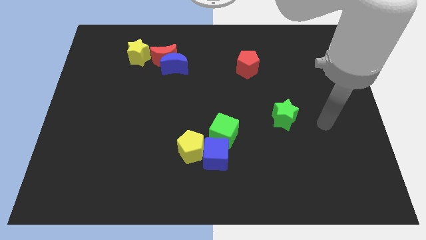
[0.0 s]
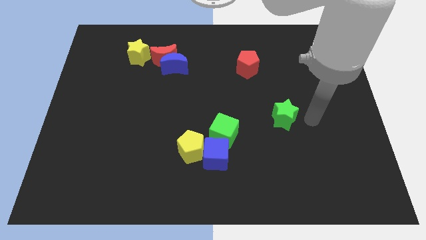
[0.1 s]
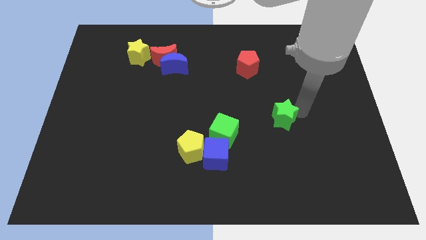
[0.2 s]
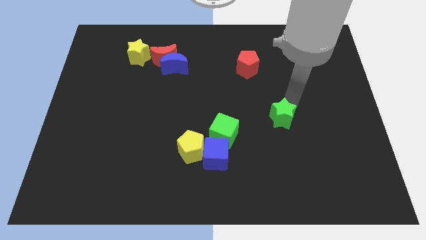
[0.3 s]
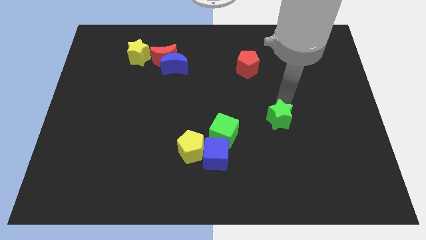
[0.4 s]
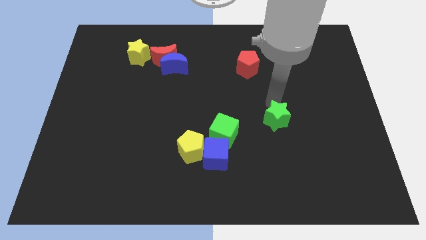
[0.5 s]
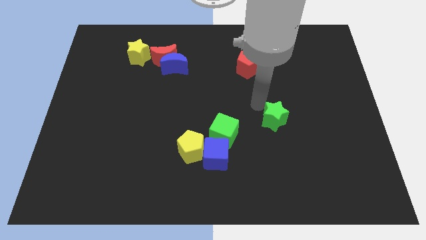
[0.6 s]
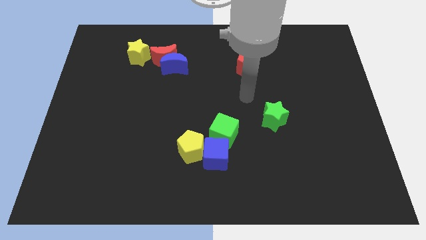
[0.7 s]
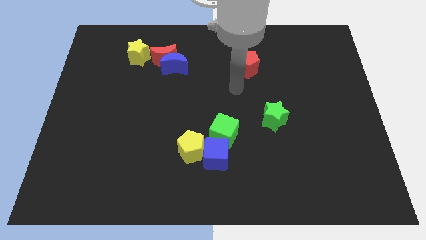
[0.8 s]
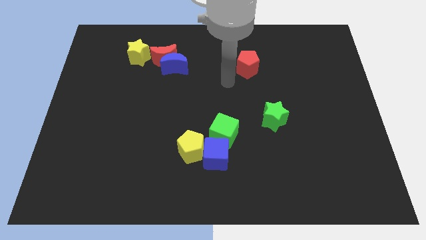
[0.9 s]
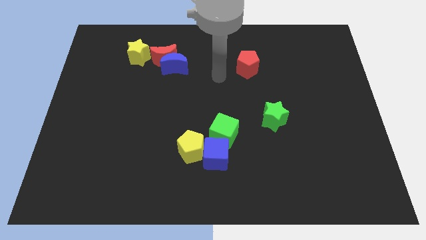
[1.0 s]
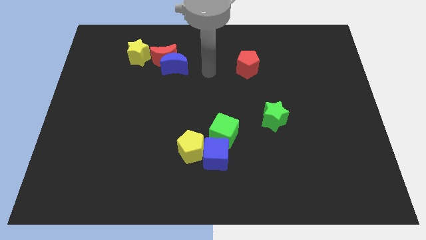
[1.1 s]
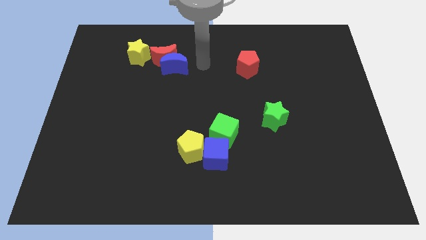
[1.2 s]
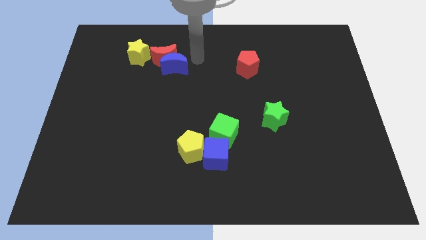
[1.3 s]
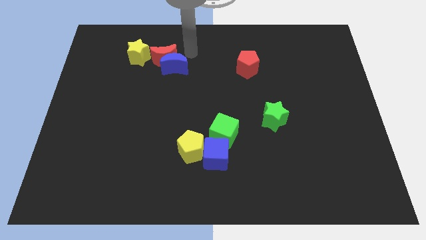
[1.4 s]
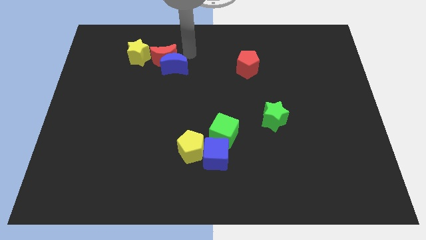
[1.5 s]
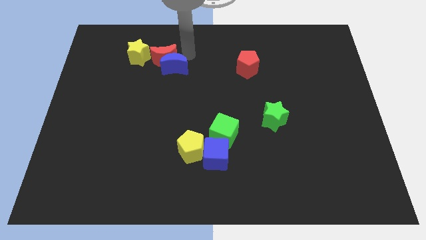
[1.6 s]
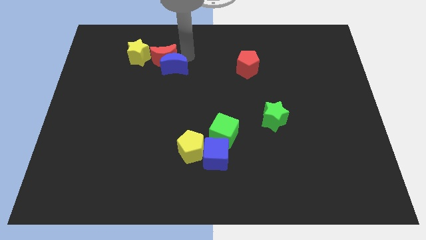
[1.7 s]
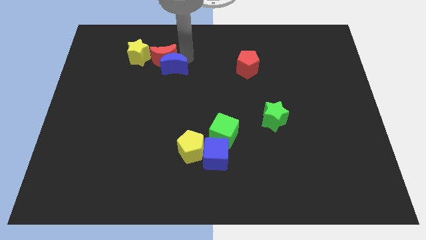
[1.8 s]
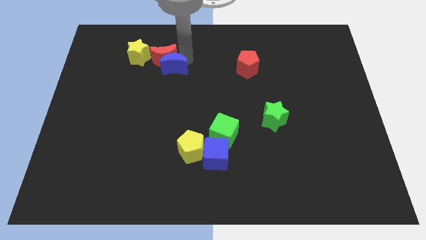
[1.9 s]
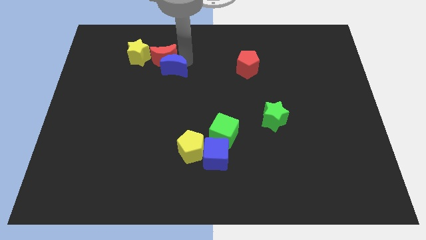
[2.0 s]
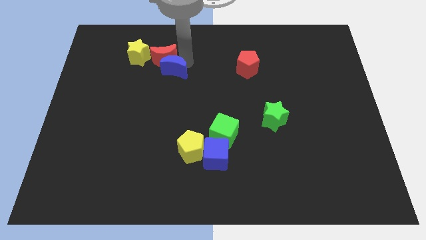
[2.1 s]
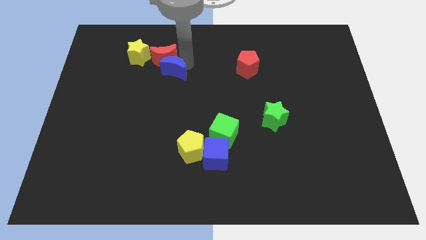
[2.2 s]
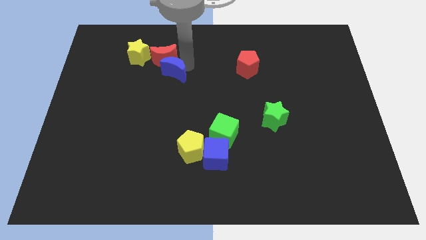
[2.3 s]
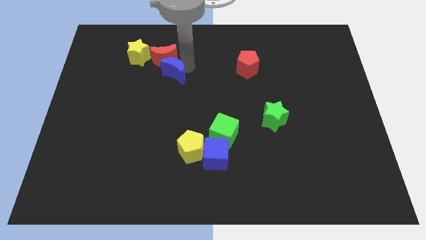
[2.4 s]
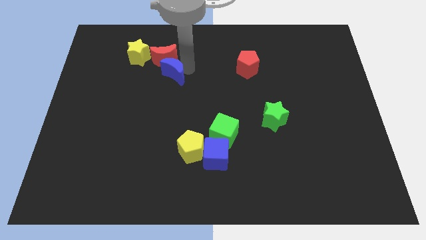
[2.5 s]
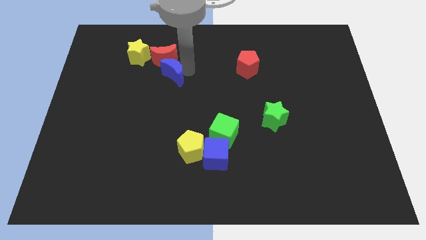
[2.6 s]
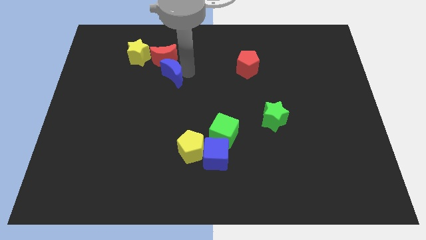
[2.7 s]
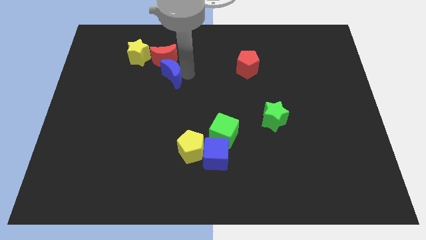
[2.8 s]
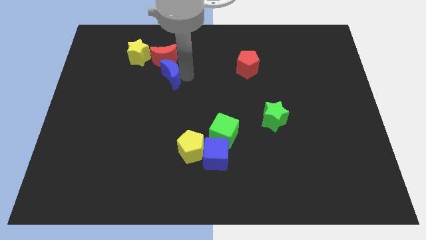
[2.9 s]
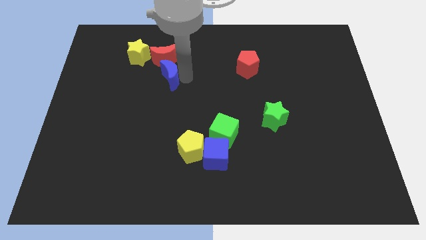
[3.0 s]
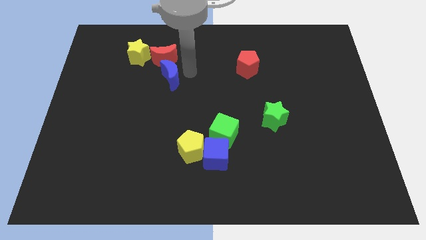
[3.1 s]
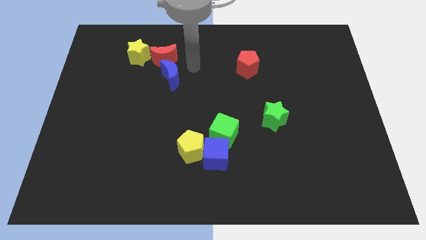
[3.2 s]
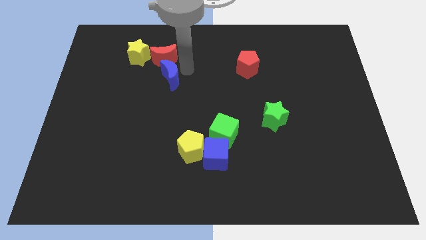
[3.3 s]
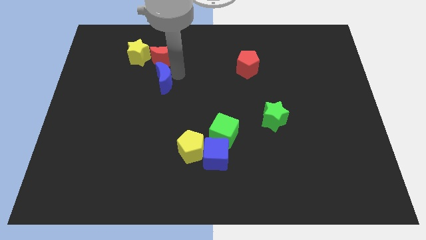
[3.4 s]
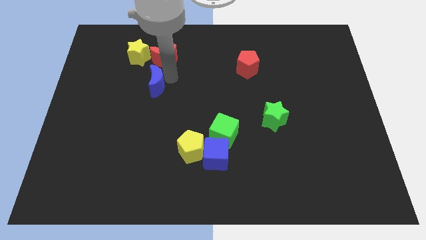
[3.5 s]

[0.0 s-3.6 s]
slightly move the blue moon downwards and then left

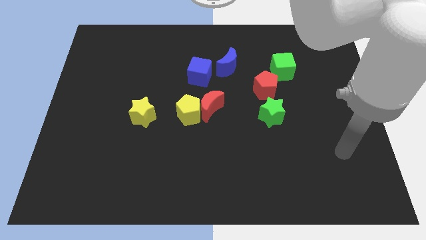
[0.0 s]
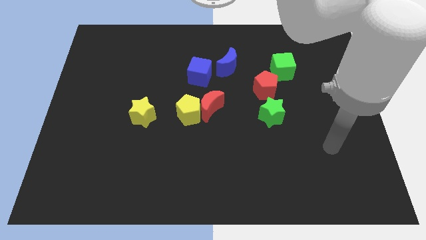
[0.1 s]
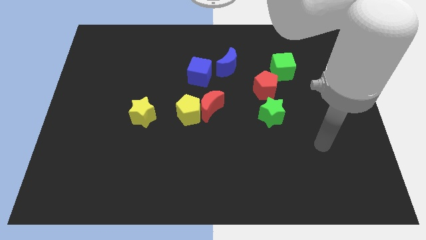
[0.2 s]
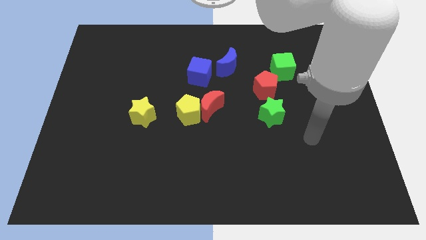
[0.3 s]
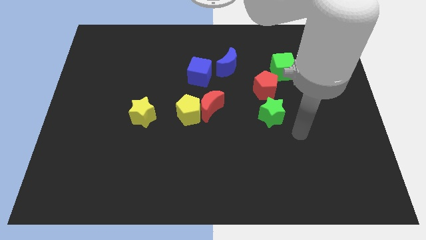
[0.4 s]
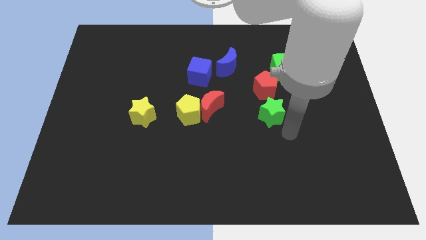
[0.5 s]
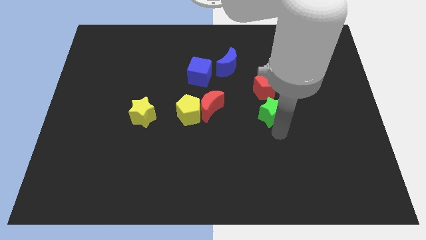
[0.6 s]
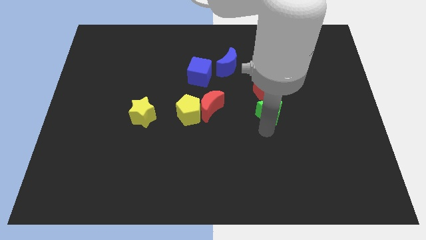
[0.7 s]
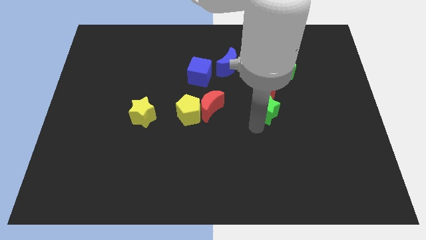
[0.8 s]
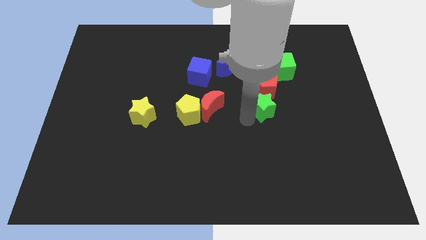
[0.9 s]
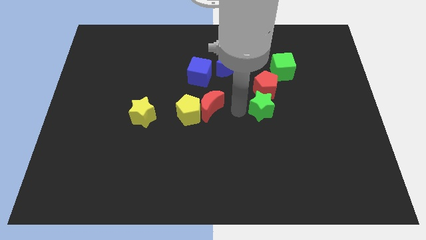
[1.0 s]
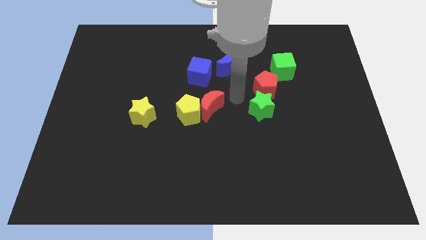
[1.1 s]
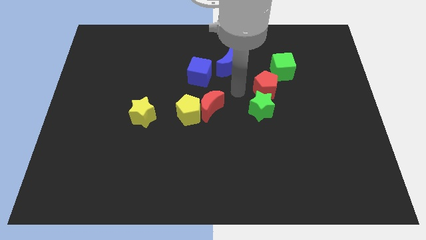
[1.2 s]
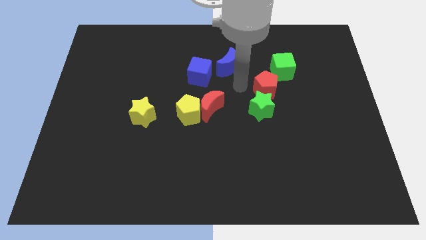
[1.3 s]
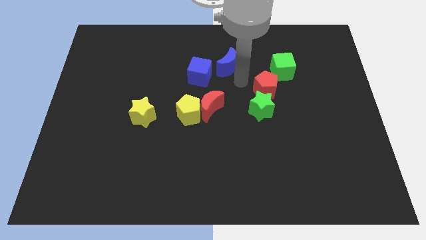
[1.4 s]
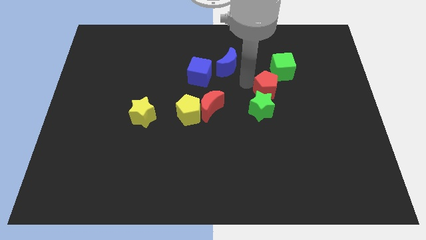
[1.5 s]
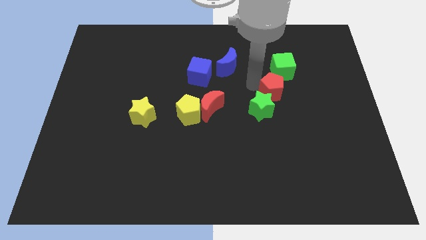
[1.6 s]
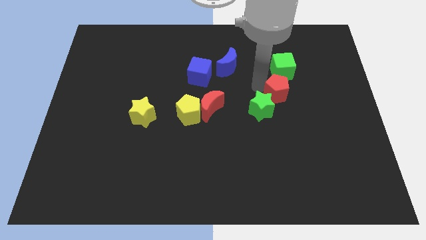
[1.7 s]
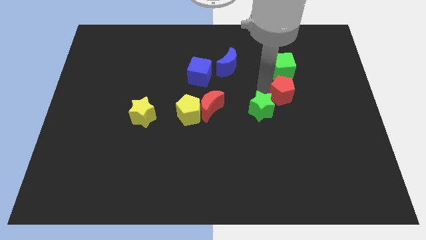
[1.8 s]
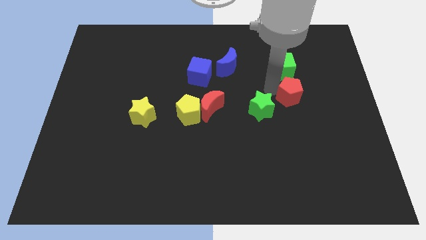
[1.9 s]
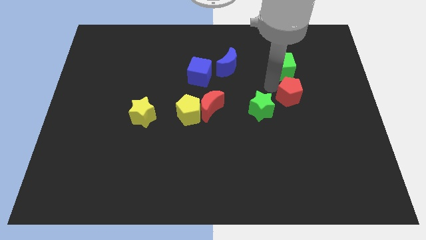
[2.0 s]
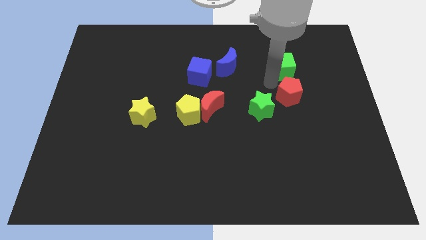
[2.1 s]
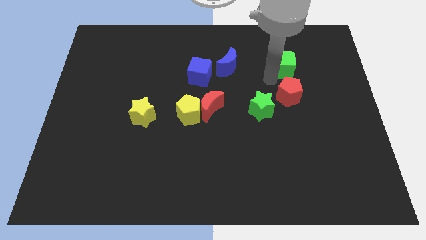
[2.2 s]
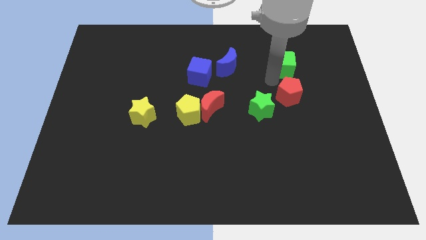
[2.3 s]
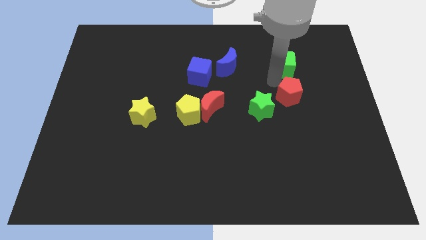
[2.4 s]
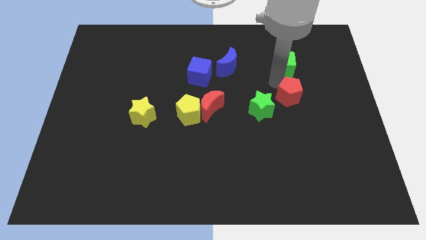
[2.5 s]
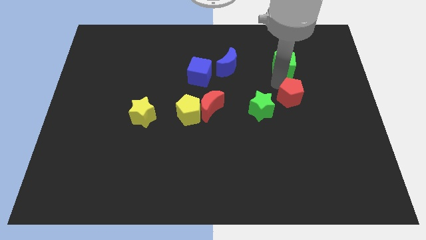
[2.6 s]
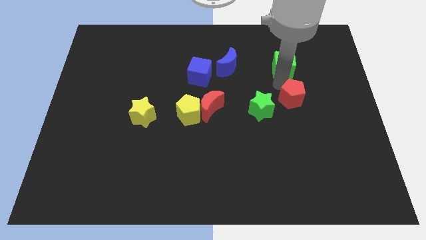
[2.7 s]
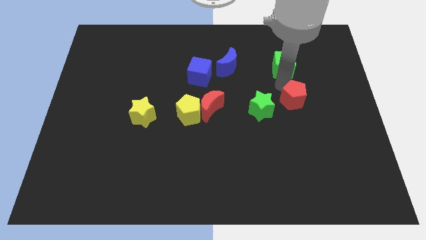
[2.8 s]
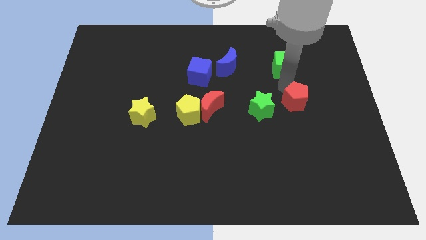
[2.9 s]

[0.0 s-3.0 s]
push the red pentagon down and to the right diagonally somewhat

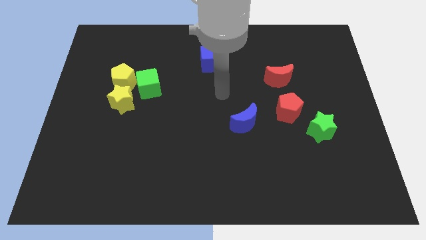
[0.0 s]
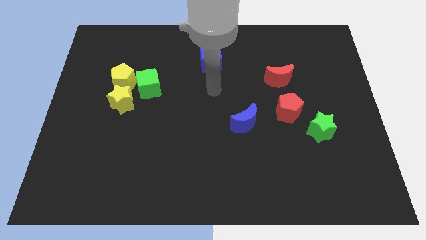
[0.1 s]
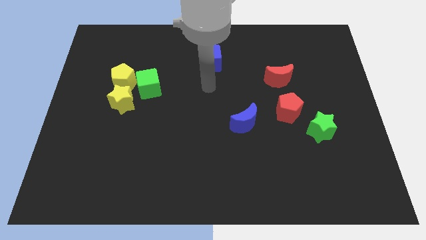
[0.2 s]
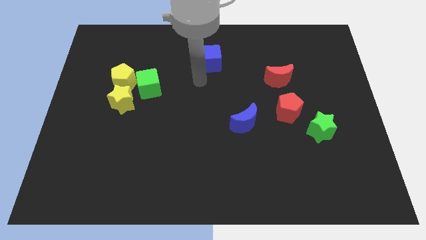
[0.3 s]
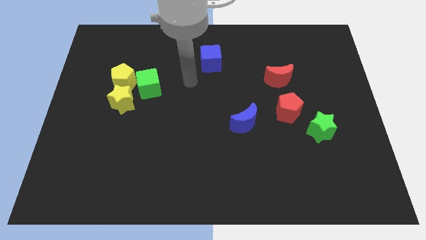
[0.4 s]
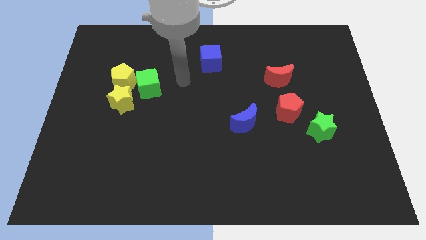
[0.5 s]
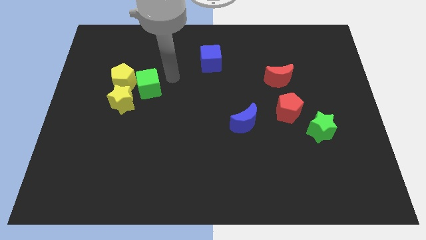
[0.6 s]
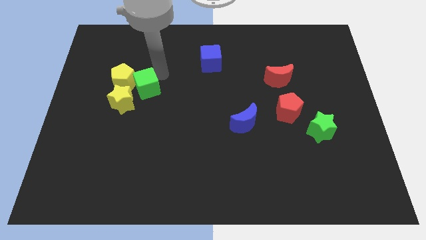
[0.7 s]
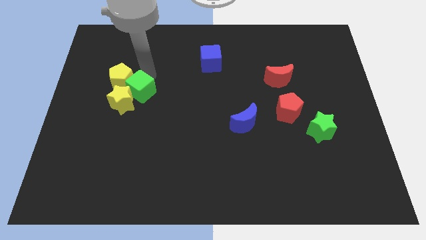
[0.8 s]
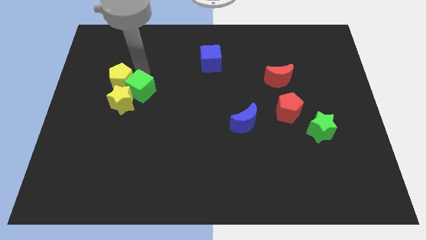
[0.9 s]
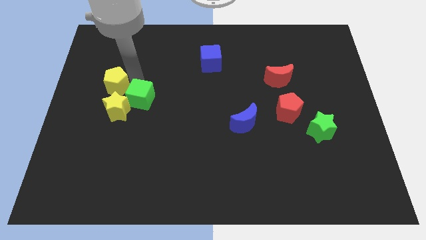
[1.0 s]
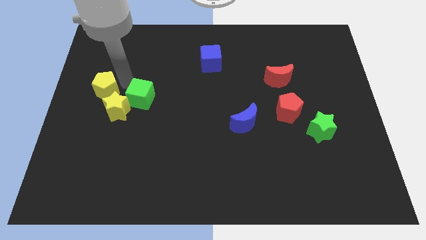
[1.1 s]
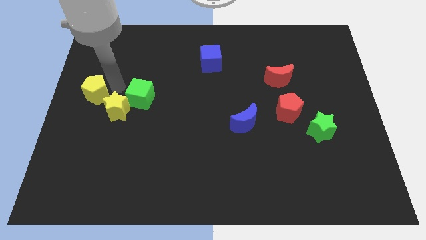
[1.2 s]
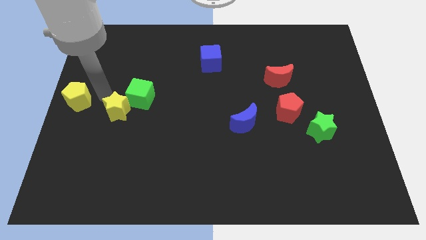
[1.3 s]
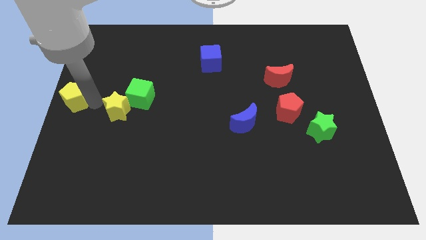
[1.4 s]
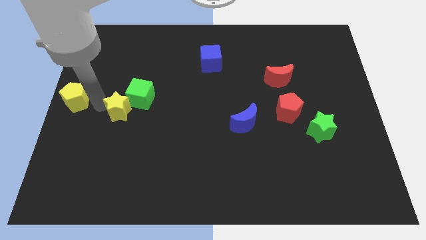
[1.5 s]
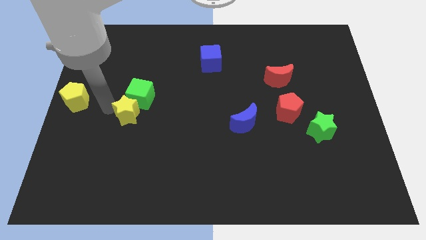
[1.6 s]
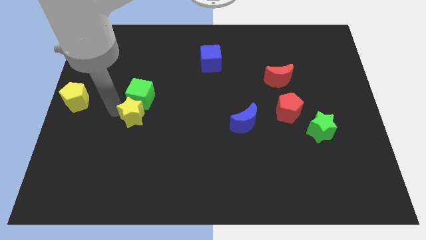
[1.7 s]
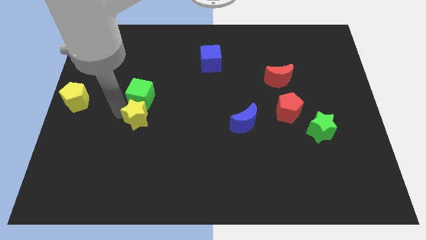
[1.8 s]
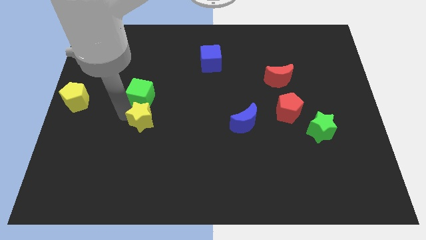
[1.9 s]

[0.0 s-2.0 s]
slightly slide the yellow star downwards and right diagonally
